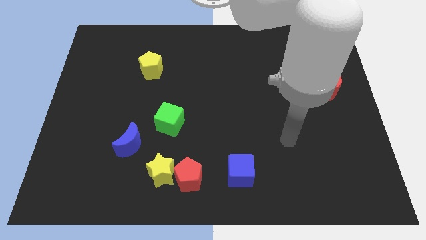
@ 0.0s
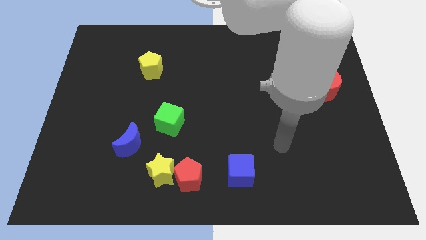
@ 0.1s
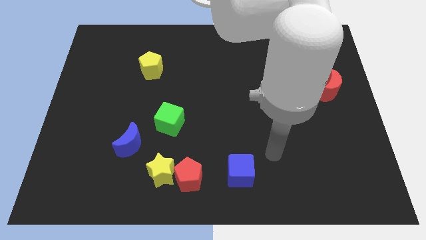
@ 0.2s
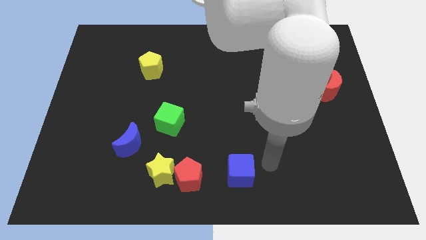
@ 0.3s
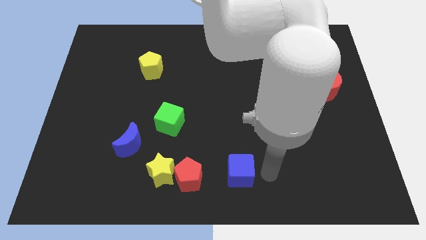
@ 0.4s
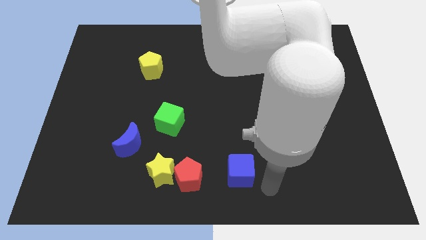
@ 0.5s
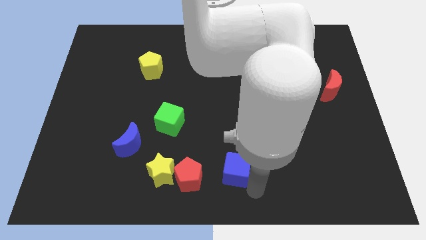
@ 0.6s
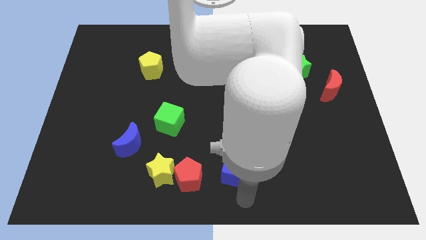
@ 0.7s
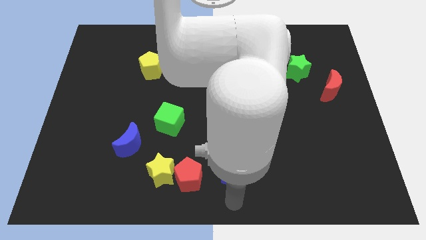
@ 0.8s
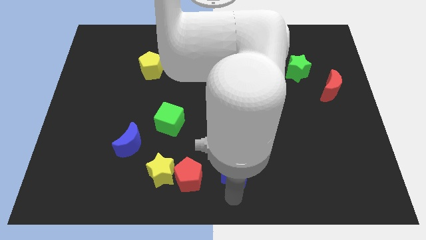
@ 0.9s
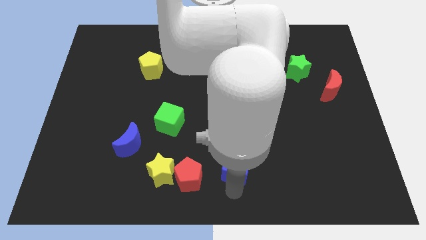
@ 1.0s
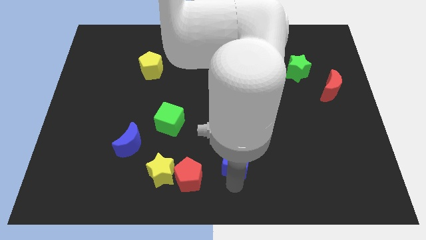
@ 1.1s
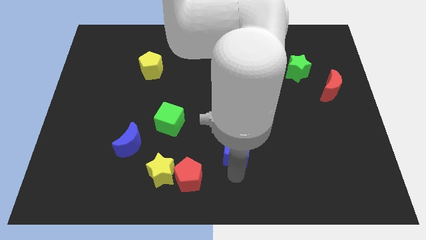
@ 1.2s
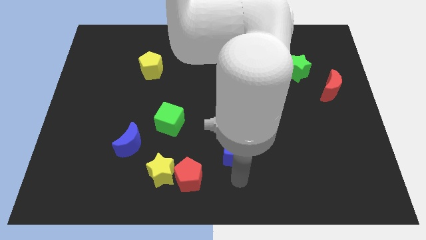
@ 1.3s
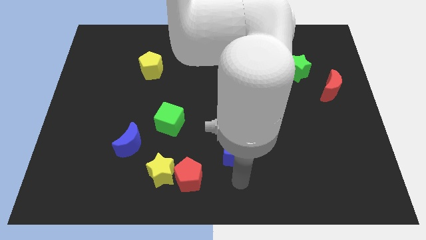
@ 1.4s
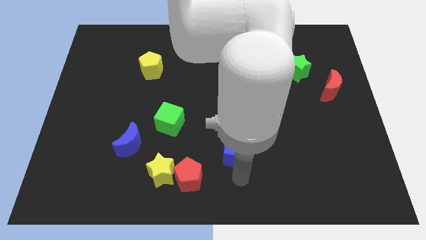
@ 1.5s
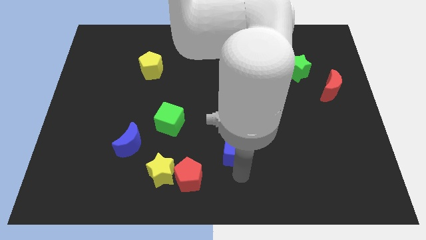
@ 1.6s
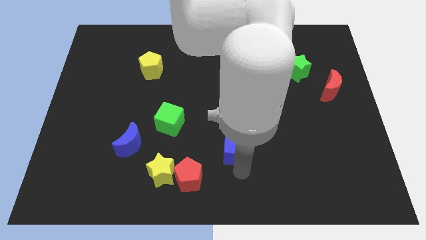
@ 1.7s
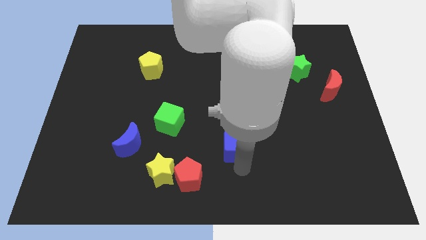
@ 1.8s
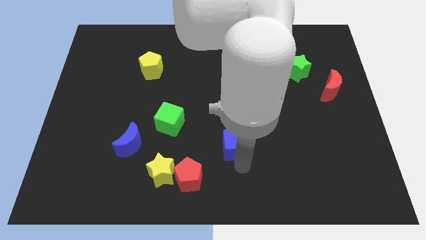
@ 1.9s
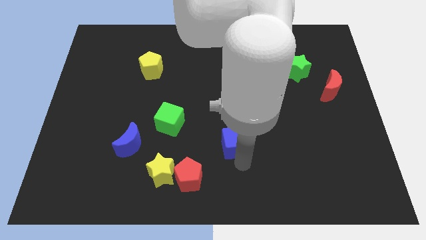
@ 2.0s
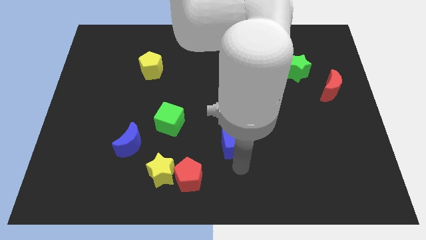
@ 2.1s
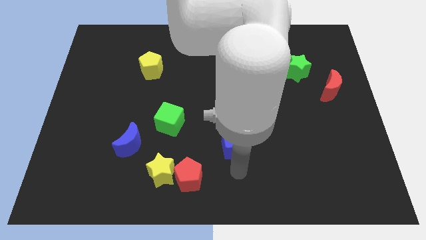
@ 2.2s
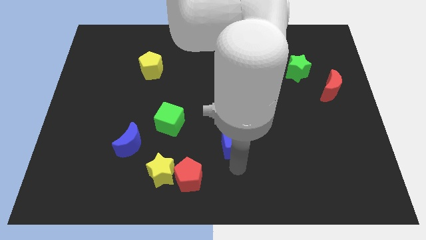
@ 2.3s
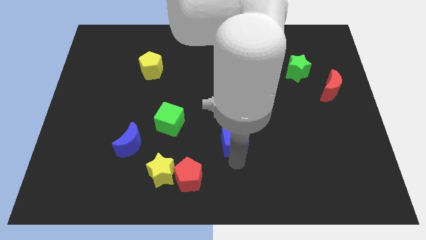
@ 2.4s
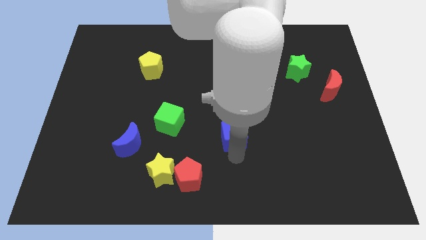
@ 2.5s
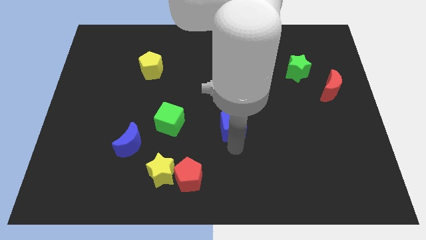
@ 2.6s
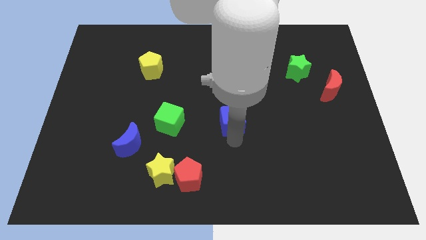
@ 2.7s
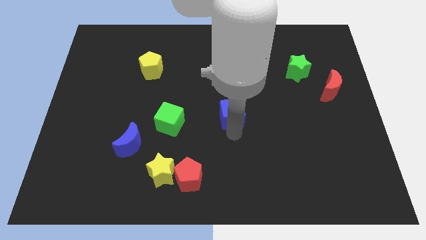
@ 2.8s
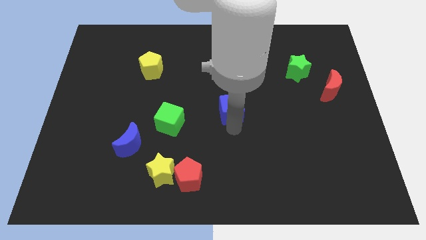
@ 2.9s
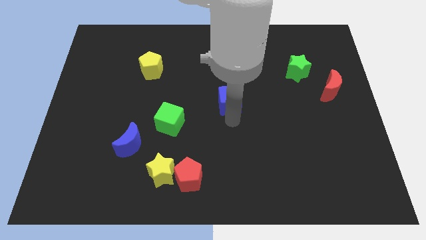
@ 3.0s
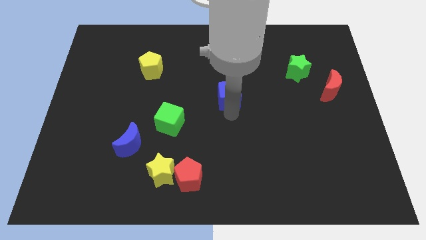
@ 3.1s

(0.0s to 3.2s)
slide the blue cube up

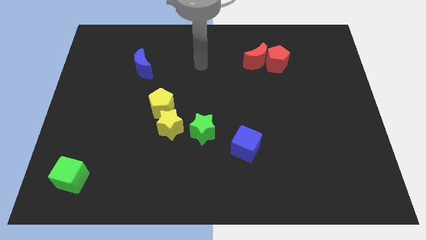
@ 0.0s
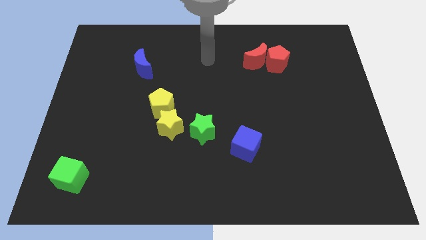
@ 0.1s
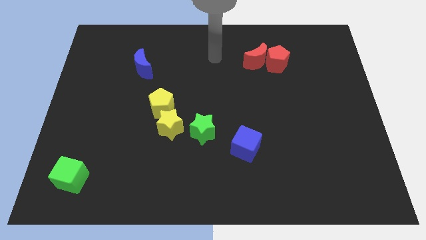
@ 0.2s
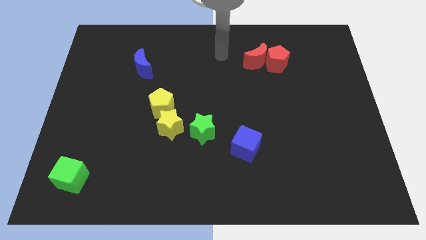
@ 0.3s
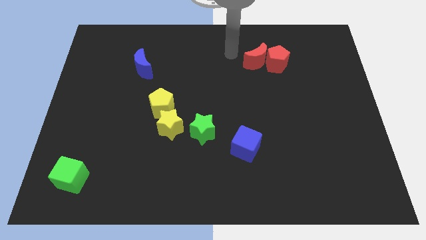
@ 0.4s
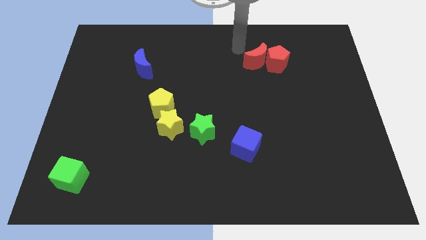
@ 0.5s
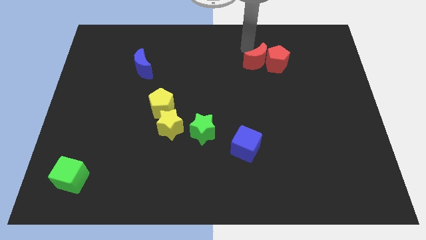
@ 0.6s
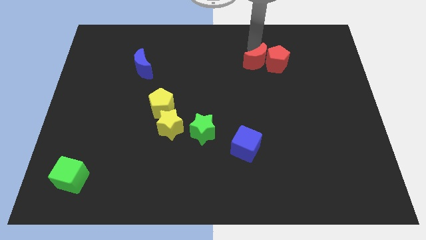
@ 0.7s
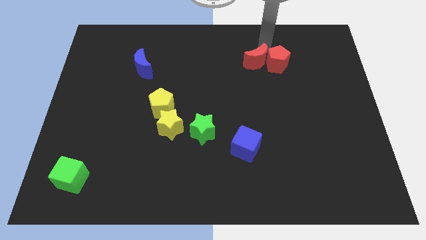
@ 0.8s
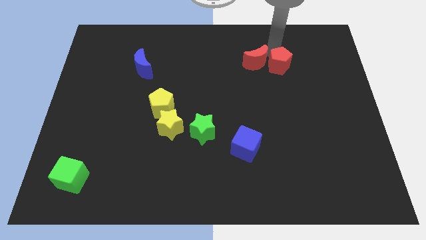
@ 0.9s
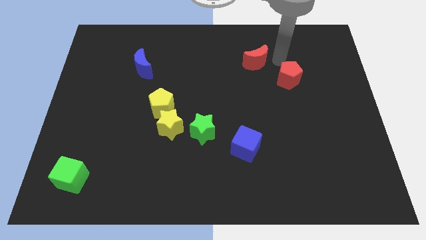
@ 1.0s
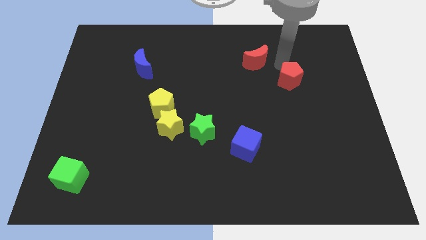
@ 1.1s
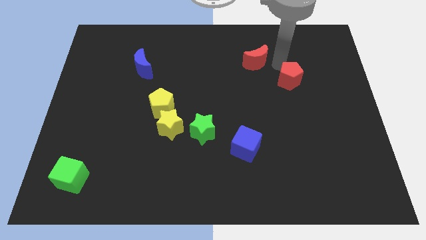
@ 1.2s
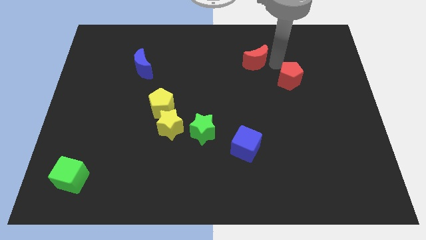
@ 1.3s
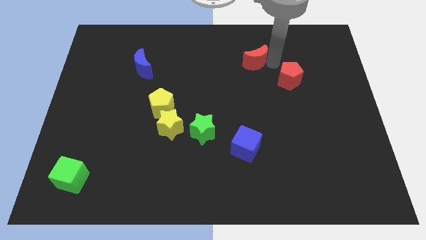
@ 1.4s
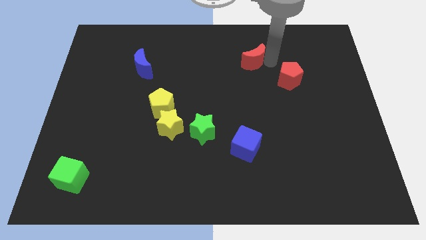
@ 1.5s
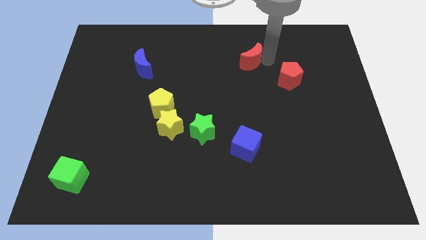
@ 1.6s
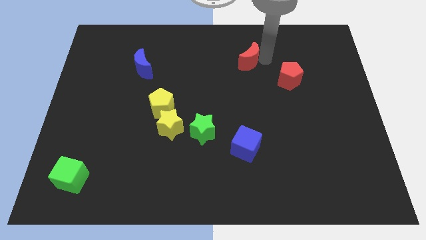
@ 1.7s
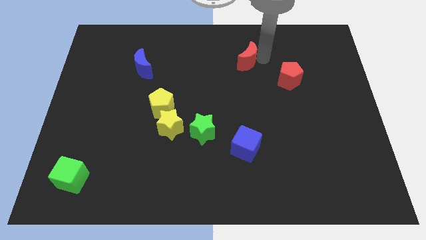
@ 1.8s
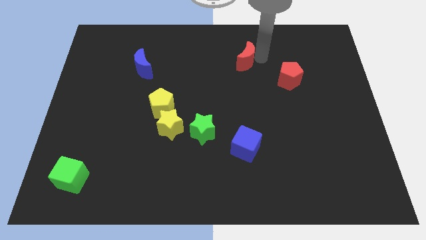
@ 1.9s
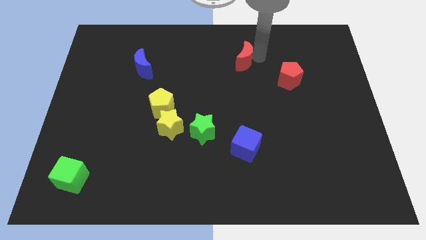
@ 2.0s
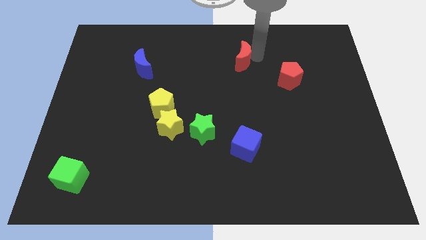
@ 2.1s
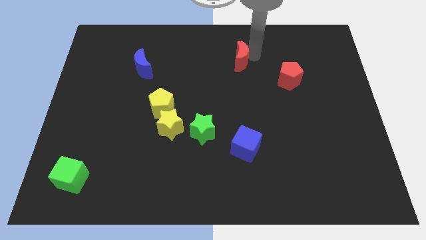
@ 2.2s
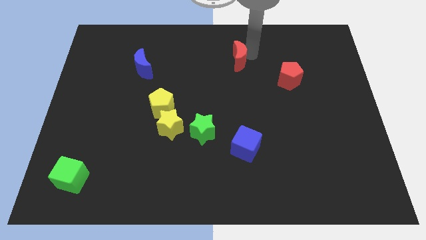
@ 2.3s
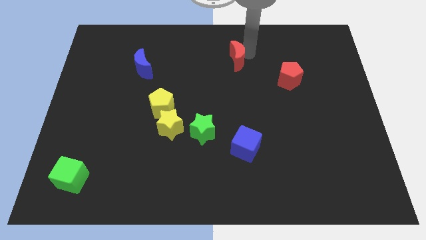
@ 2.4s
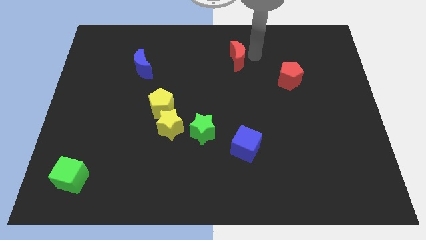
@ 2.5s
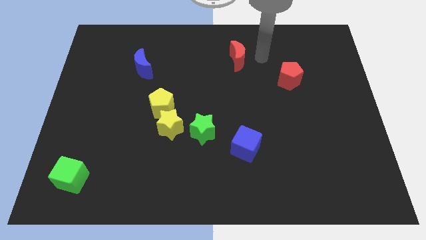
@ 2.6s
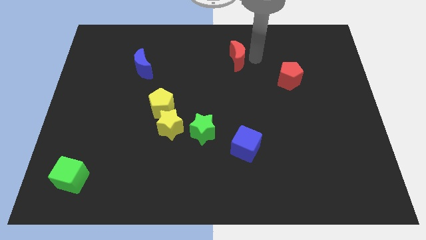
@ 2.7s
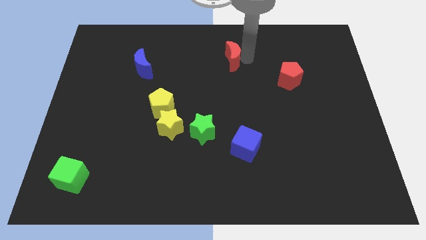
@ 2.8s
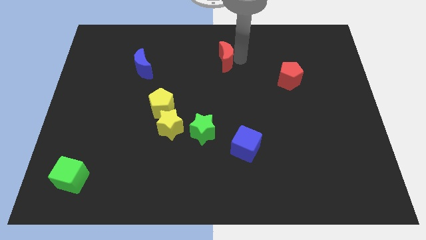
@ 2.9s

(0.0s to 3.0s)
slightly slide the red moon left

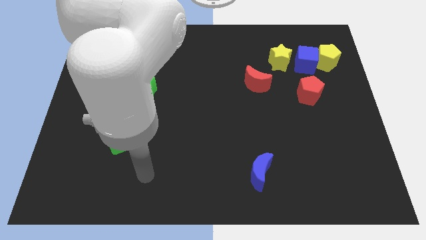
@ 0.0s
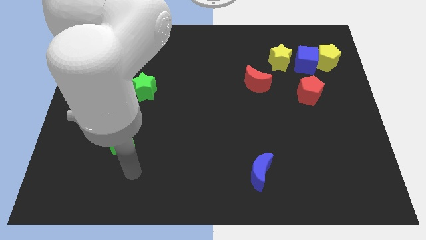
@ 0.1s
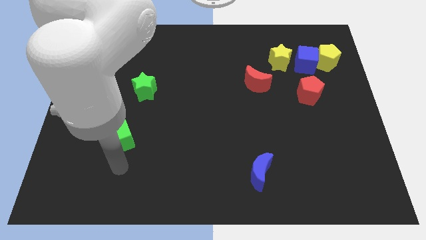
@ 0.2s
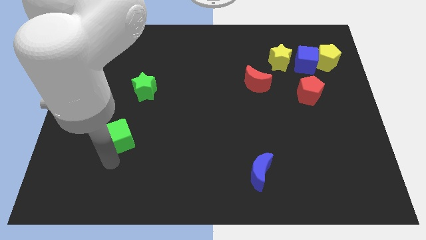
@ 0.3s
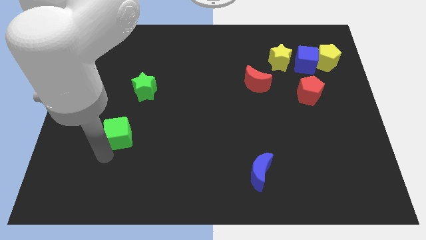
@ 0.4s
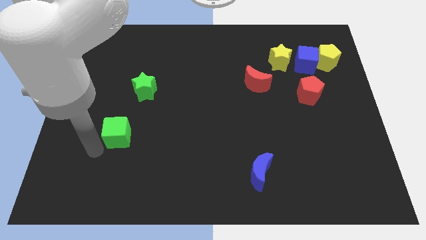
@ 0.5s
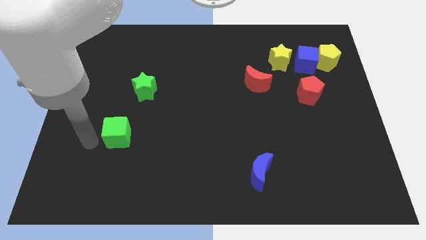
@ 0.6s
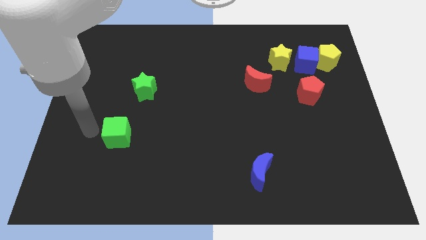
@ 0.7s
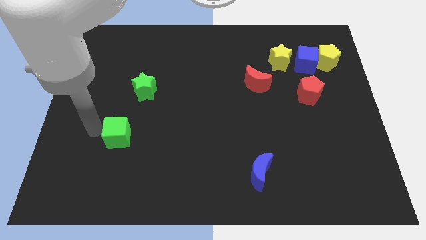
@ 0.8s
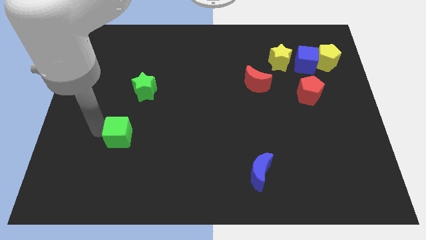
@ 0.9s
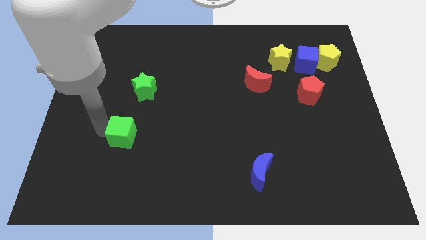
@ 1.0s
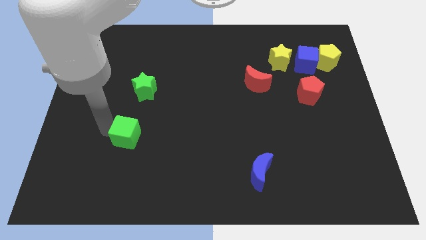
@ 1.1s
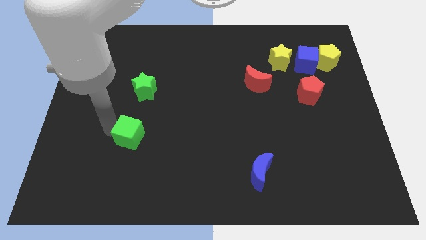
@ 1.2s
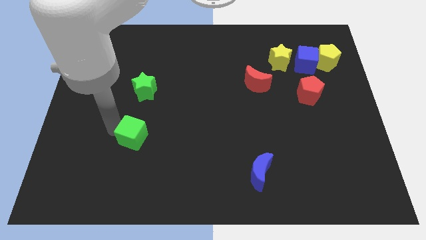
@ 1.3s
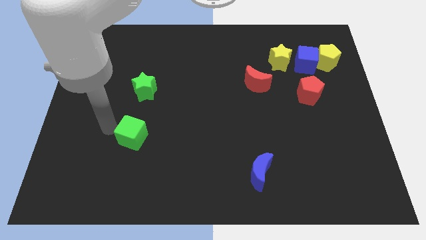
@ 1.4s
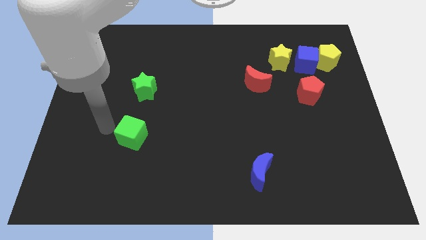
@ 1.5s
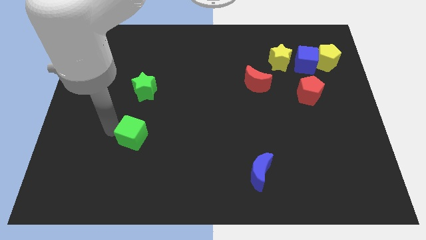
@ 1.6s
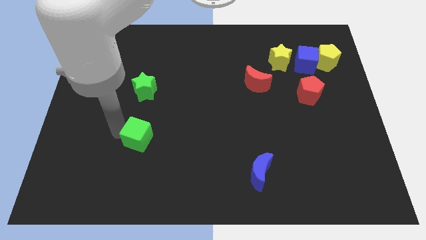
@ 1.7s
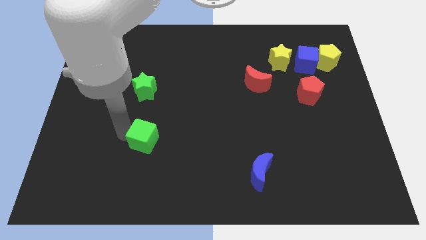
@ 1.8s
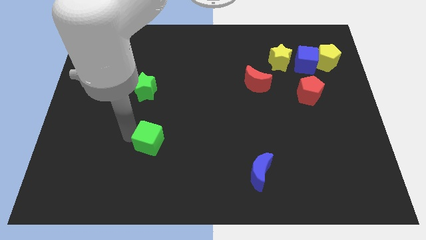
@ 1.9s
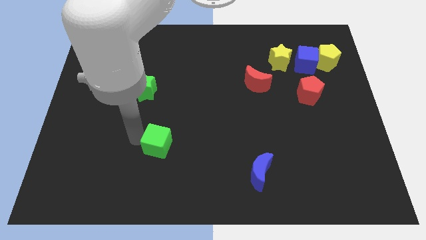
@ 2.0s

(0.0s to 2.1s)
push the green cube a bit right
